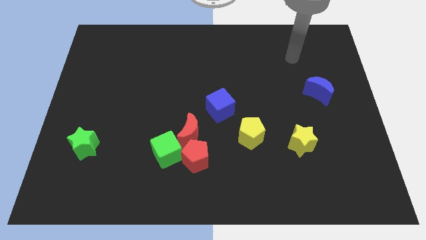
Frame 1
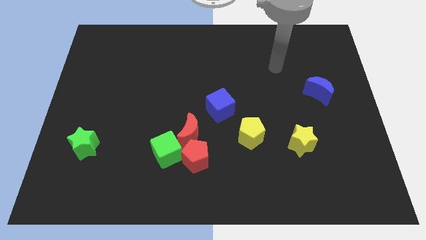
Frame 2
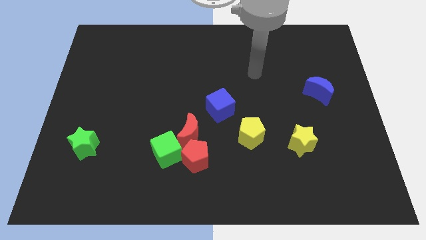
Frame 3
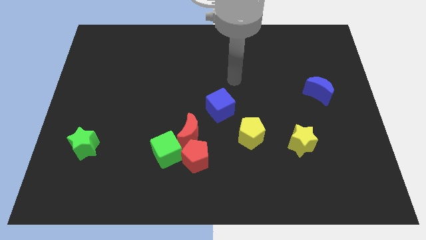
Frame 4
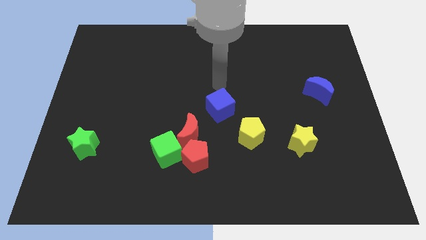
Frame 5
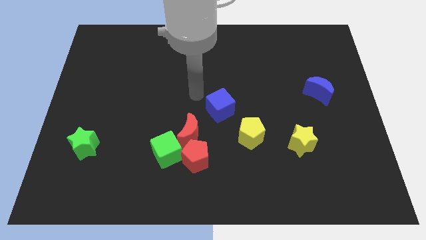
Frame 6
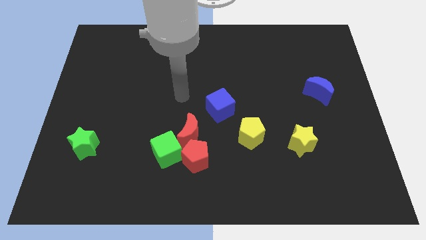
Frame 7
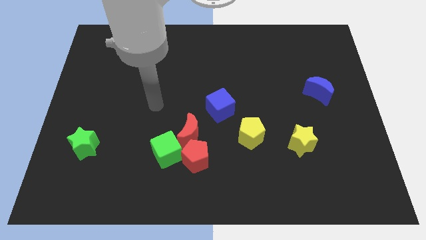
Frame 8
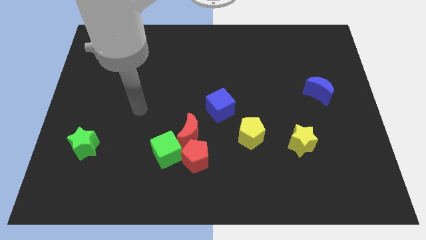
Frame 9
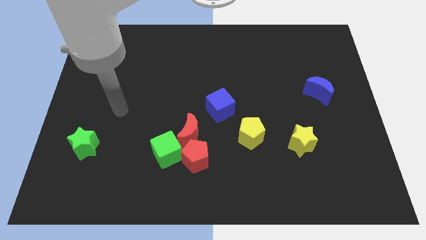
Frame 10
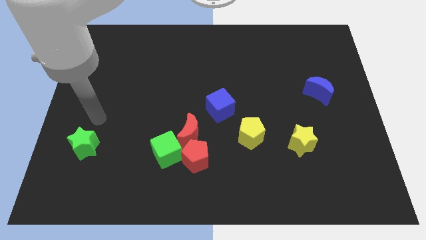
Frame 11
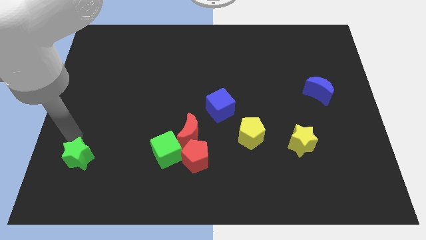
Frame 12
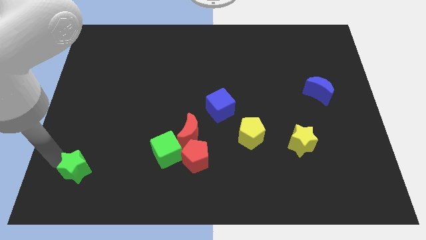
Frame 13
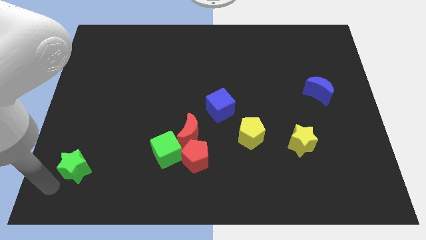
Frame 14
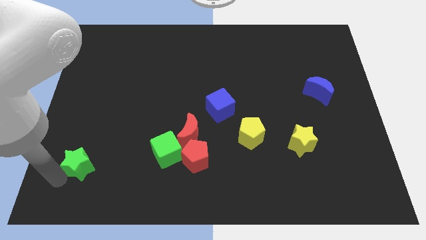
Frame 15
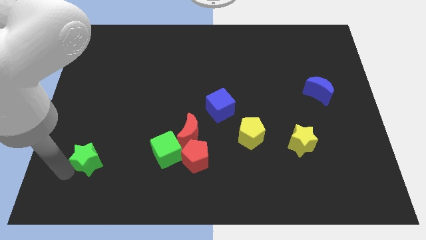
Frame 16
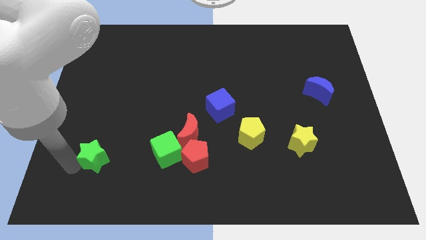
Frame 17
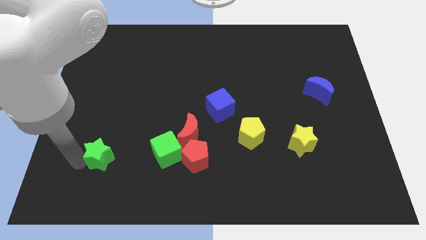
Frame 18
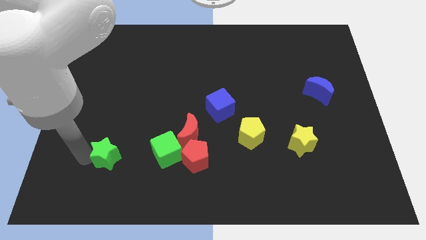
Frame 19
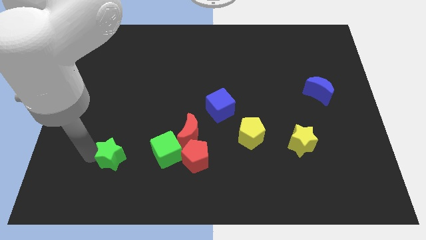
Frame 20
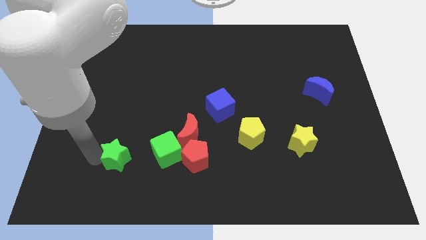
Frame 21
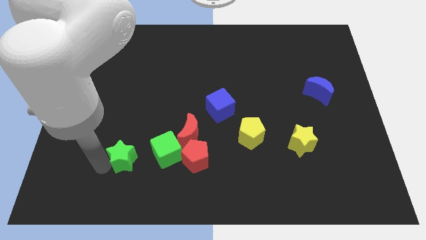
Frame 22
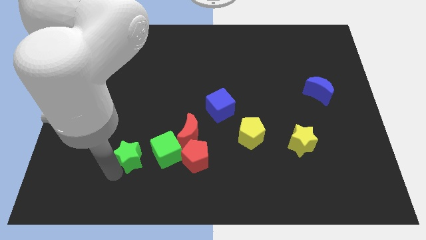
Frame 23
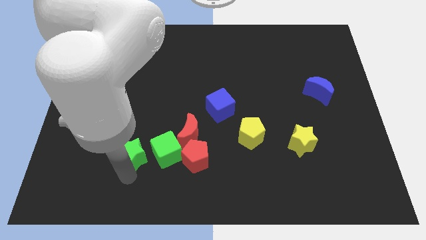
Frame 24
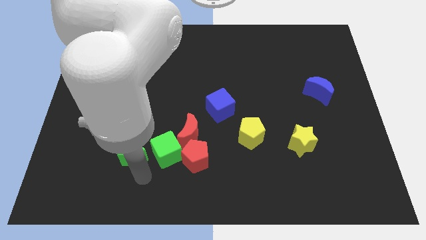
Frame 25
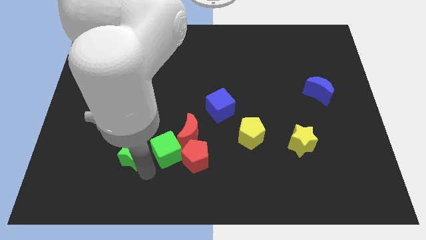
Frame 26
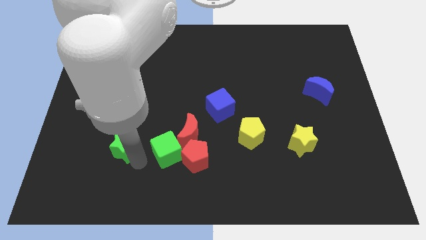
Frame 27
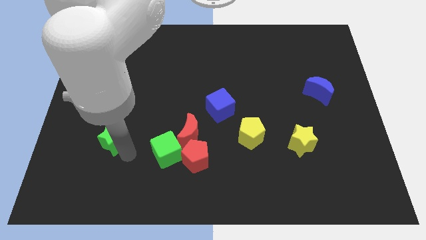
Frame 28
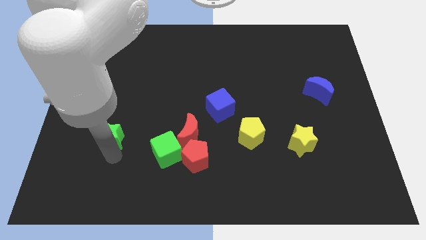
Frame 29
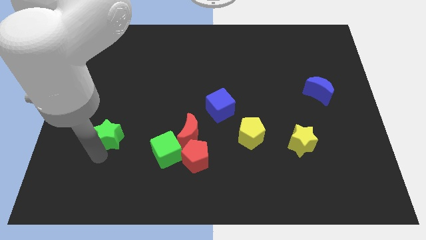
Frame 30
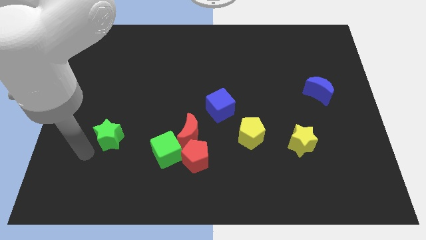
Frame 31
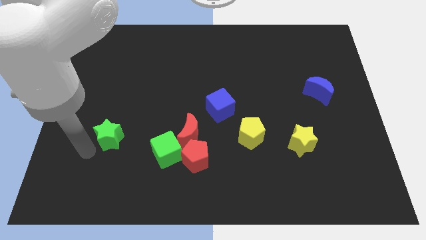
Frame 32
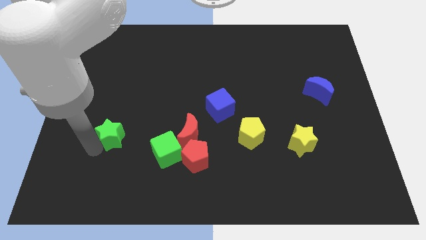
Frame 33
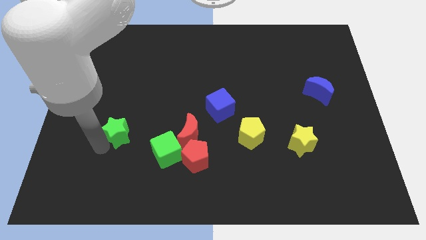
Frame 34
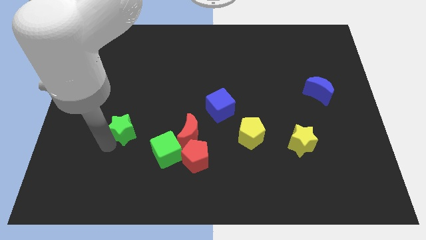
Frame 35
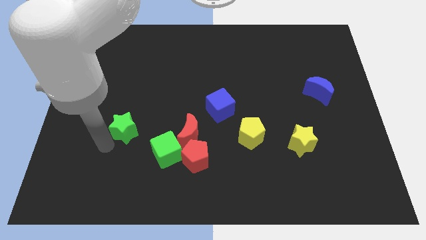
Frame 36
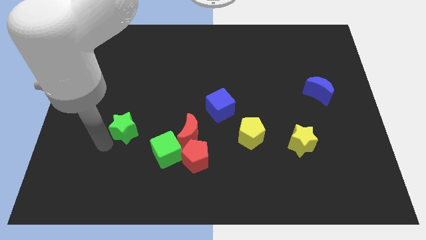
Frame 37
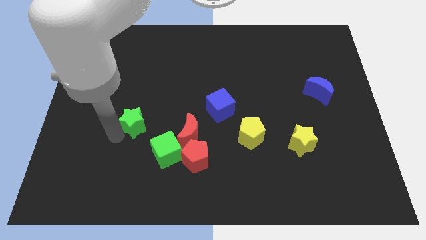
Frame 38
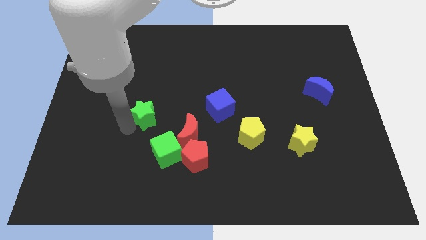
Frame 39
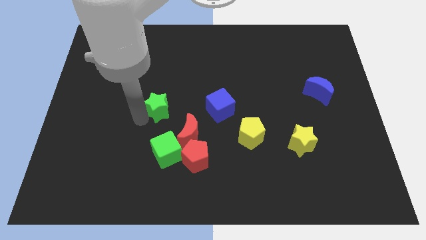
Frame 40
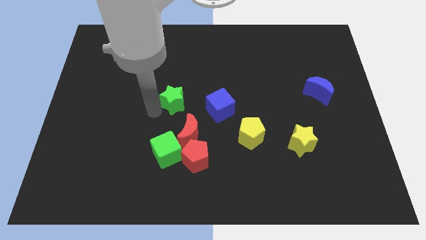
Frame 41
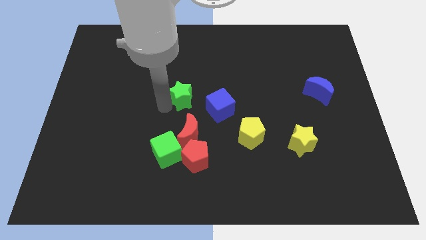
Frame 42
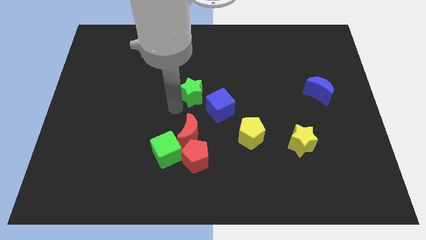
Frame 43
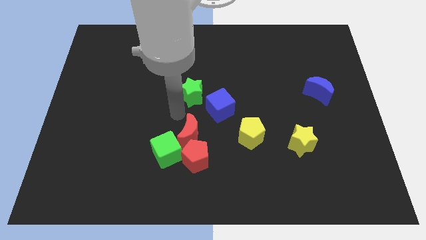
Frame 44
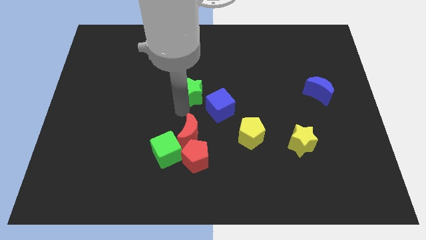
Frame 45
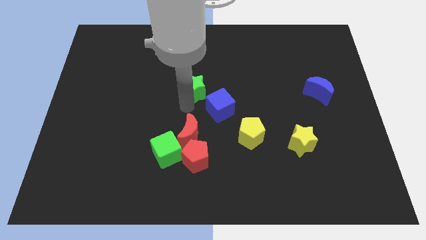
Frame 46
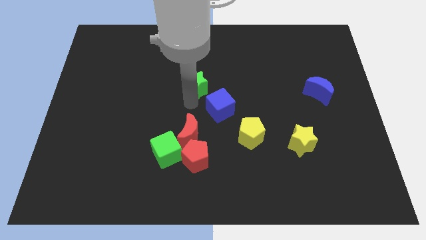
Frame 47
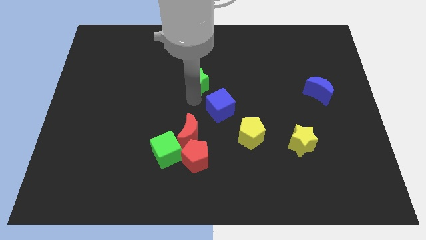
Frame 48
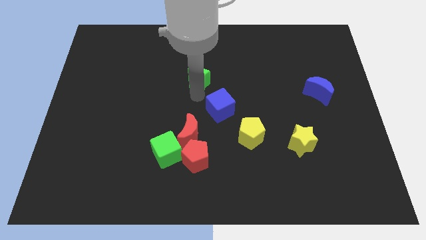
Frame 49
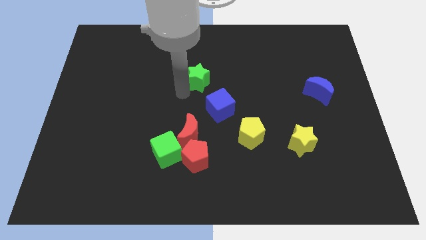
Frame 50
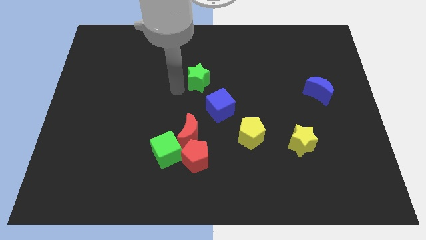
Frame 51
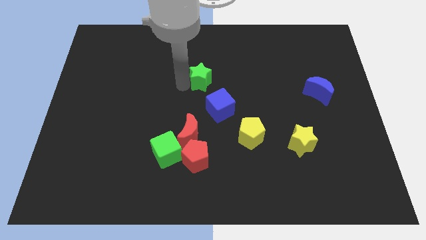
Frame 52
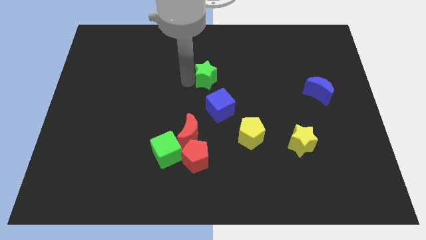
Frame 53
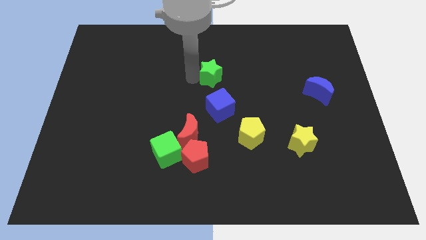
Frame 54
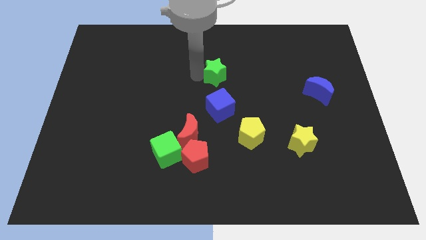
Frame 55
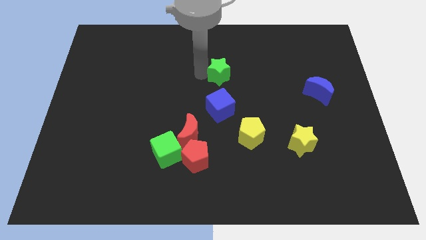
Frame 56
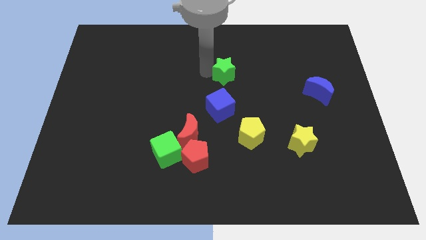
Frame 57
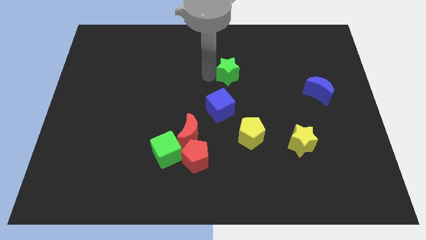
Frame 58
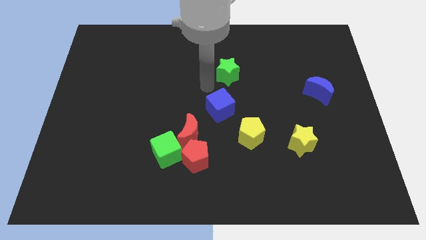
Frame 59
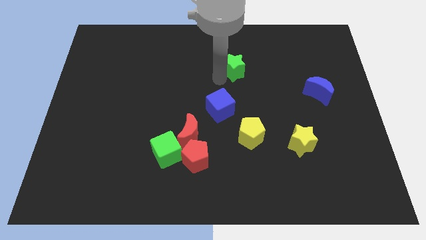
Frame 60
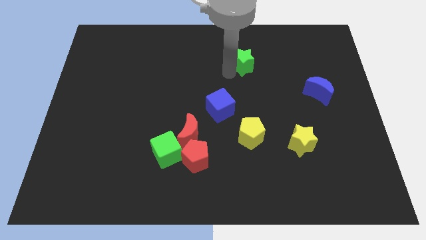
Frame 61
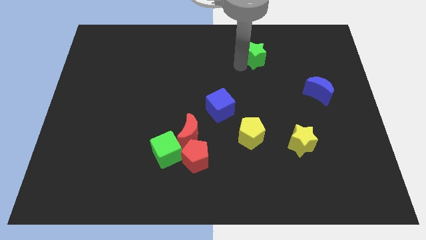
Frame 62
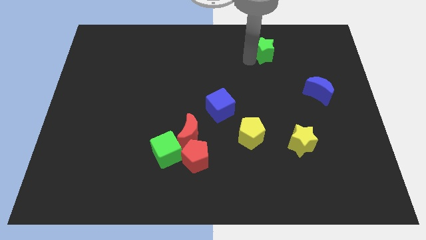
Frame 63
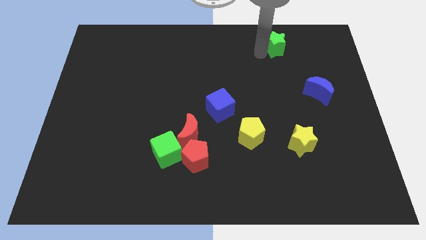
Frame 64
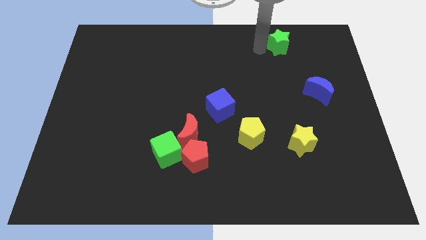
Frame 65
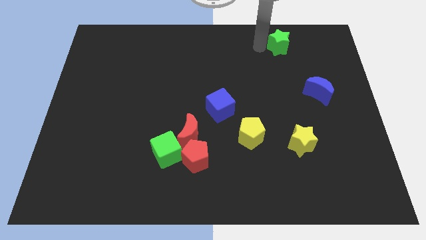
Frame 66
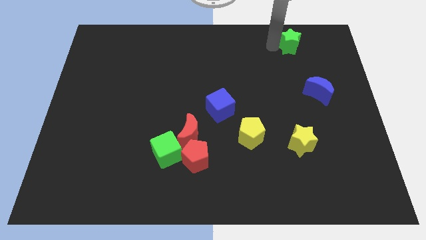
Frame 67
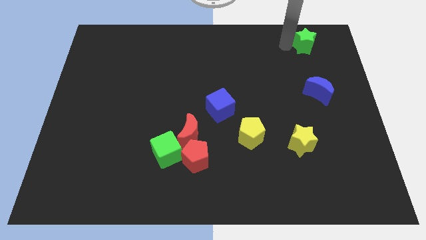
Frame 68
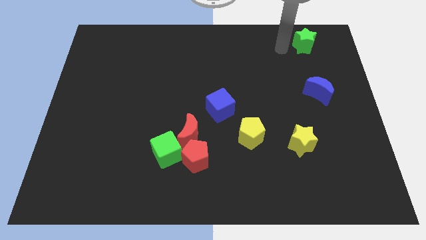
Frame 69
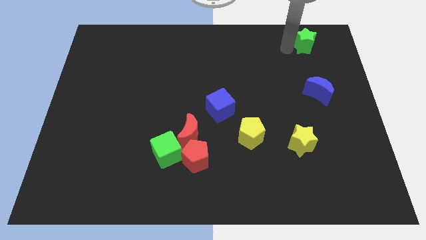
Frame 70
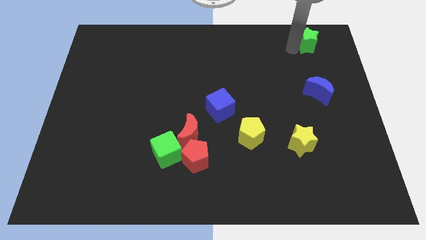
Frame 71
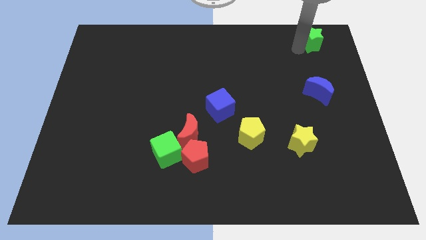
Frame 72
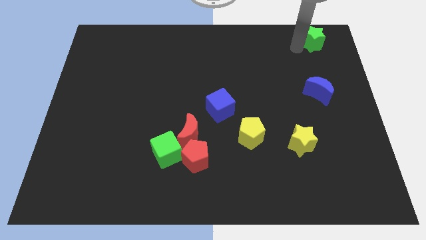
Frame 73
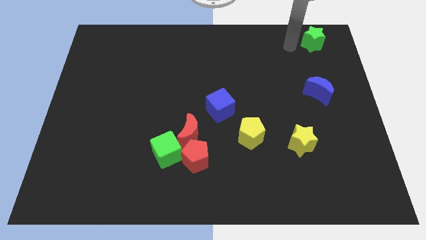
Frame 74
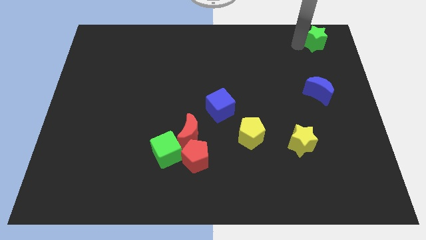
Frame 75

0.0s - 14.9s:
move the green star to the upper right corner
